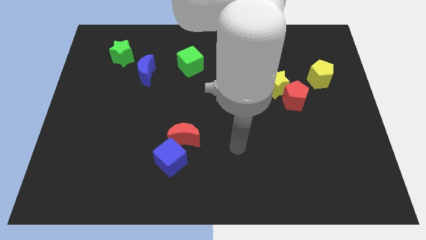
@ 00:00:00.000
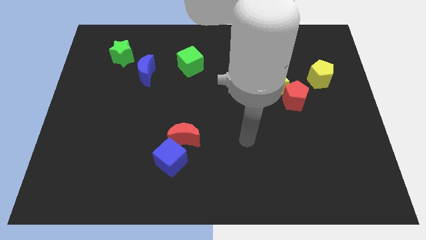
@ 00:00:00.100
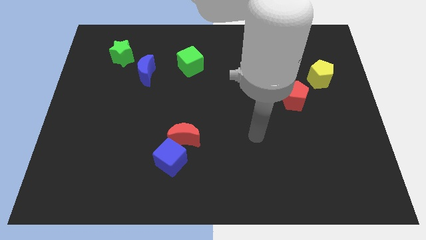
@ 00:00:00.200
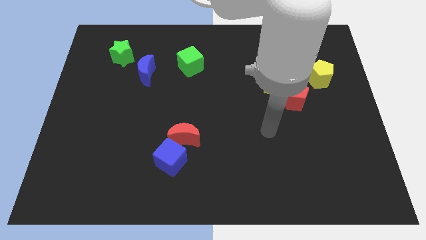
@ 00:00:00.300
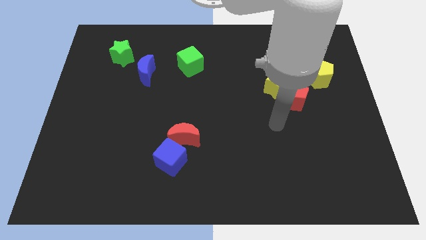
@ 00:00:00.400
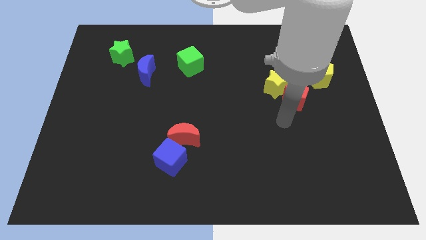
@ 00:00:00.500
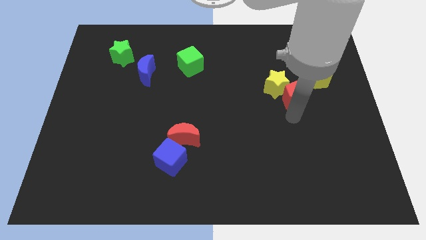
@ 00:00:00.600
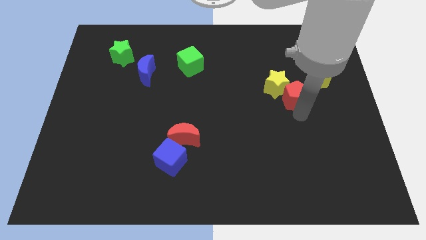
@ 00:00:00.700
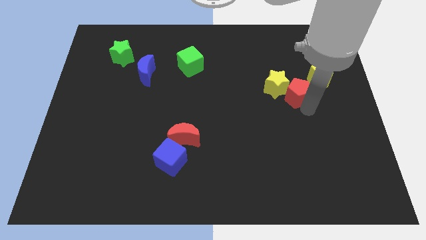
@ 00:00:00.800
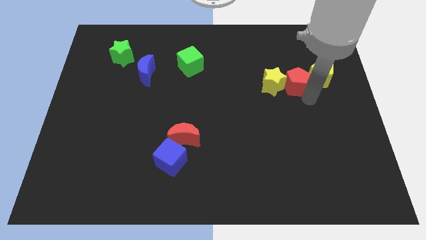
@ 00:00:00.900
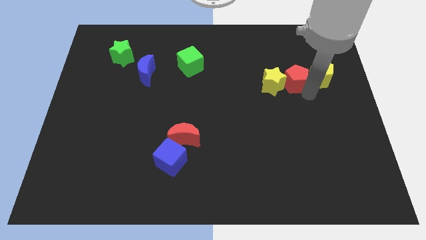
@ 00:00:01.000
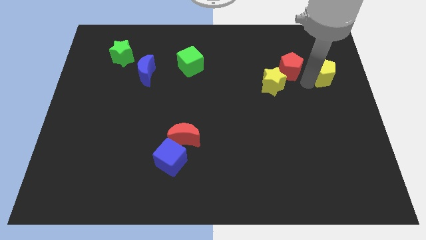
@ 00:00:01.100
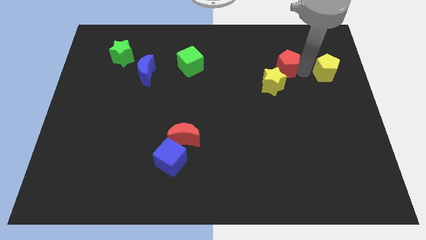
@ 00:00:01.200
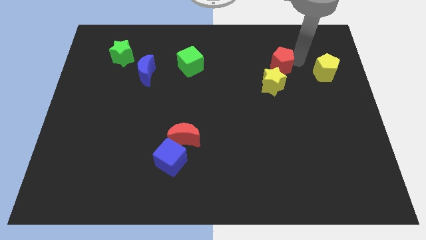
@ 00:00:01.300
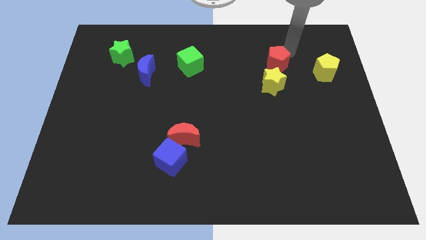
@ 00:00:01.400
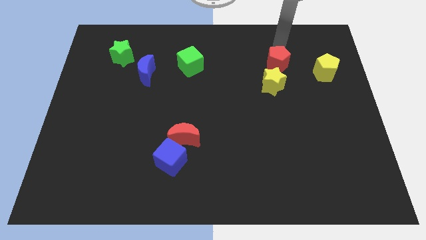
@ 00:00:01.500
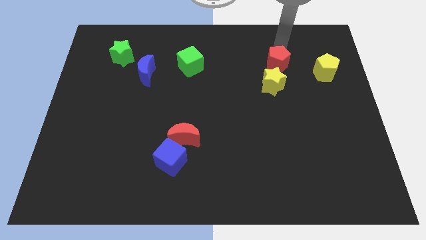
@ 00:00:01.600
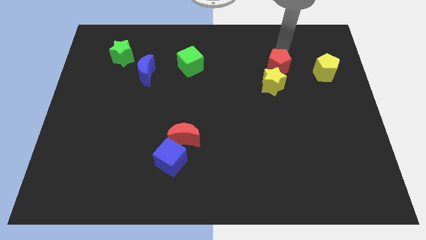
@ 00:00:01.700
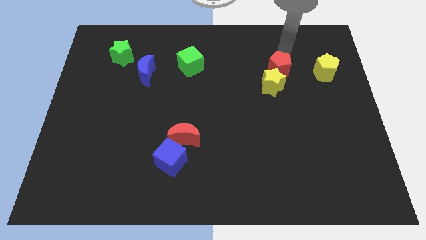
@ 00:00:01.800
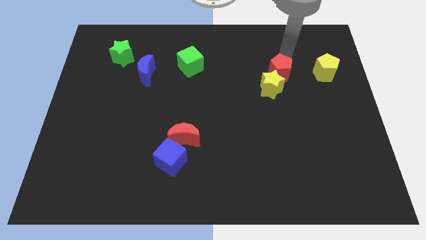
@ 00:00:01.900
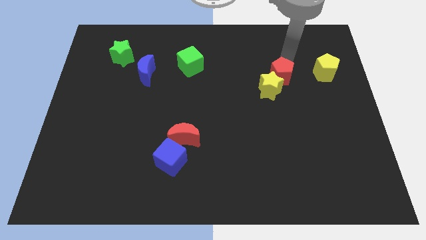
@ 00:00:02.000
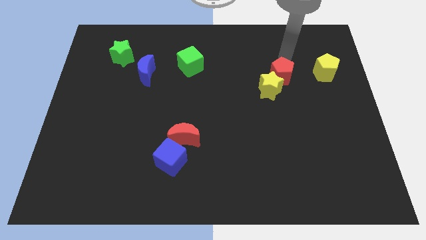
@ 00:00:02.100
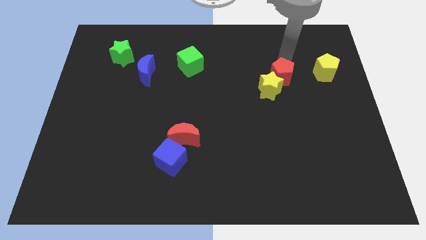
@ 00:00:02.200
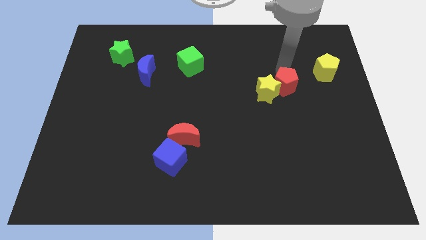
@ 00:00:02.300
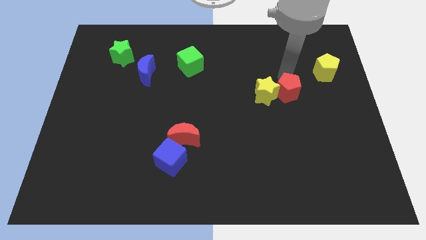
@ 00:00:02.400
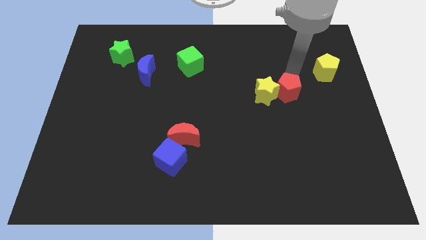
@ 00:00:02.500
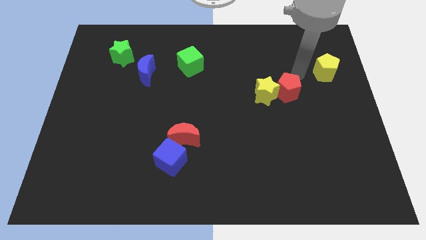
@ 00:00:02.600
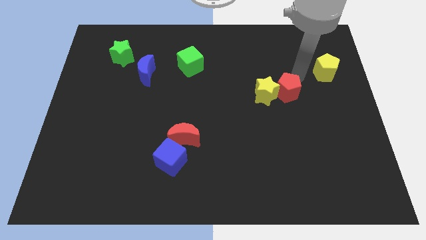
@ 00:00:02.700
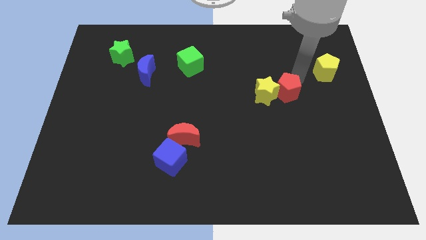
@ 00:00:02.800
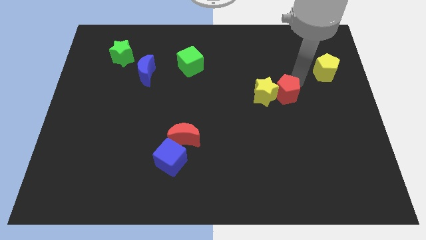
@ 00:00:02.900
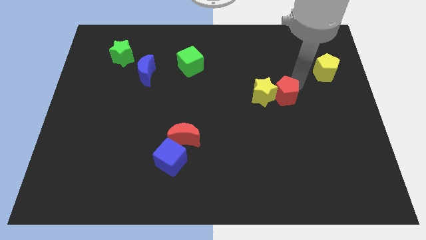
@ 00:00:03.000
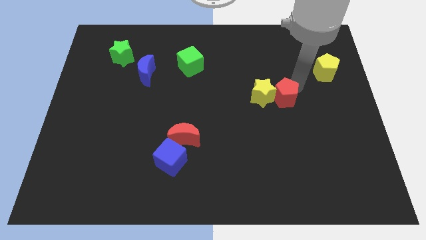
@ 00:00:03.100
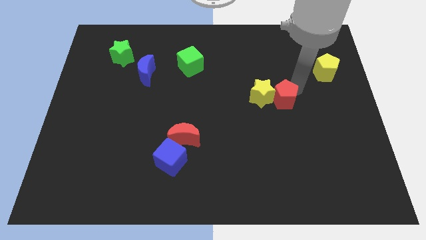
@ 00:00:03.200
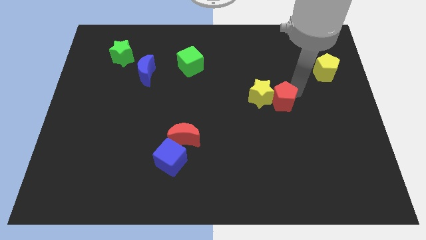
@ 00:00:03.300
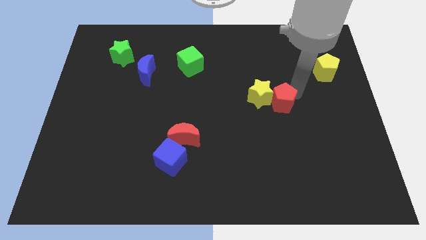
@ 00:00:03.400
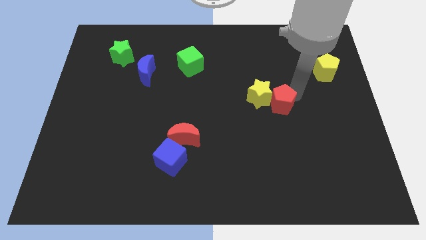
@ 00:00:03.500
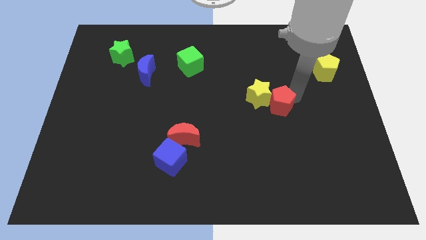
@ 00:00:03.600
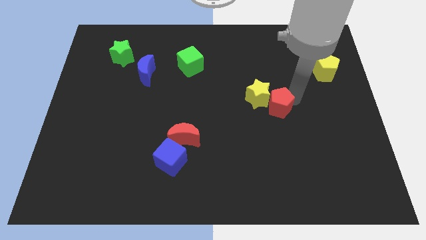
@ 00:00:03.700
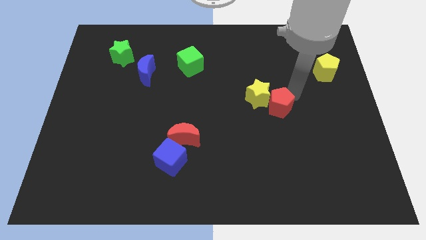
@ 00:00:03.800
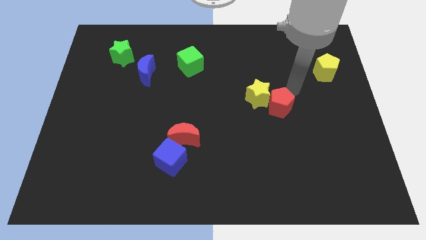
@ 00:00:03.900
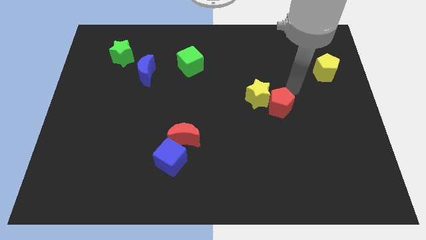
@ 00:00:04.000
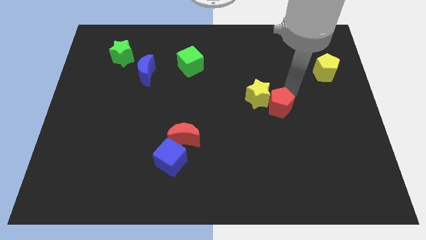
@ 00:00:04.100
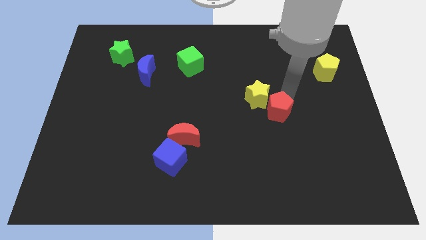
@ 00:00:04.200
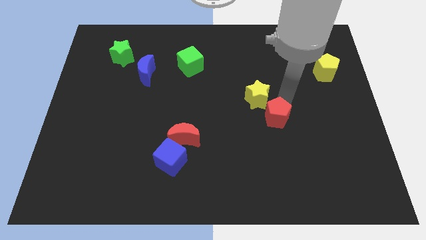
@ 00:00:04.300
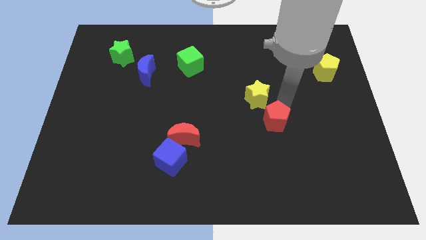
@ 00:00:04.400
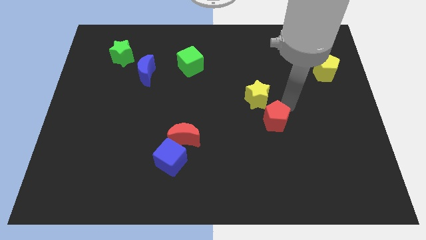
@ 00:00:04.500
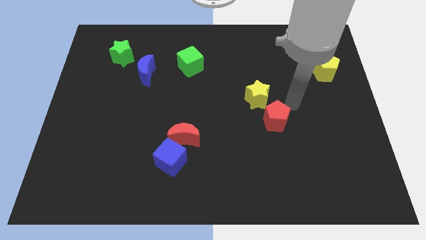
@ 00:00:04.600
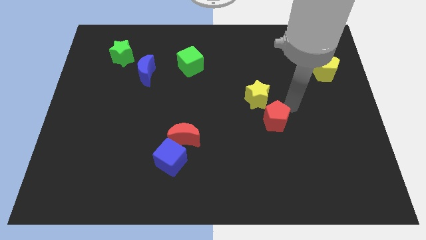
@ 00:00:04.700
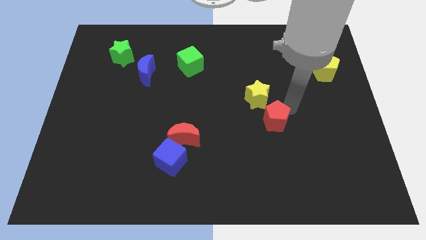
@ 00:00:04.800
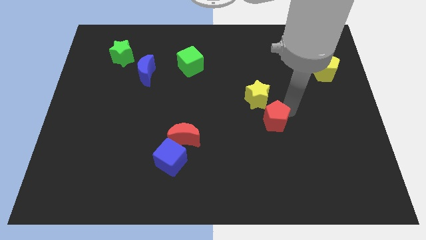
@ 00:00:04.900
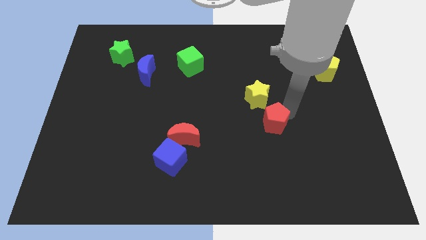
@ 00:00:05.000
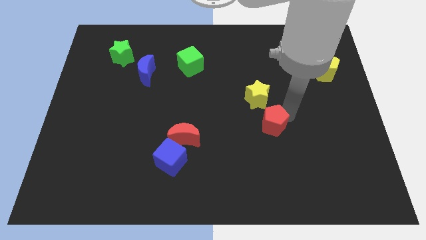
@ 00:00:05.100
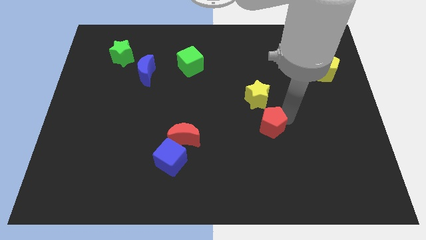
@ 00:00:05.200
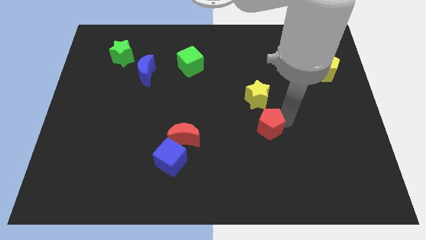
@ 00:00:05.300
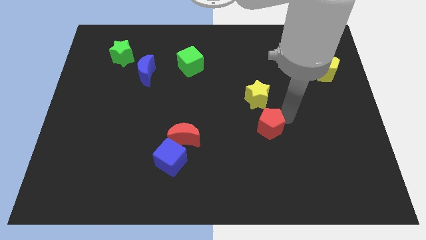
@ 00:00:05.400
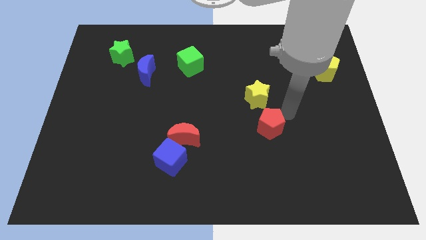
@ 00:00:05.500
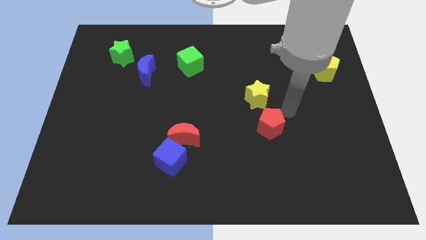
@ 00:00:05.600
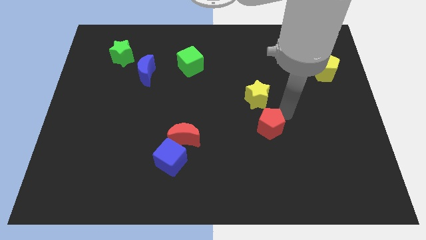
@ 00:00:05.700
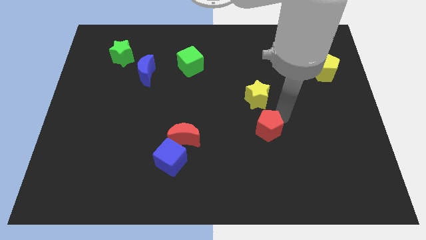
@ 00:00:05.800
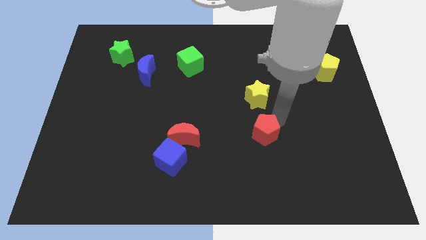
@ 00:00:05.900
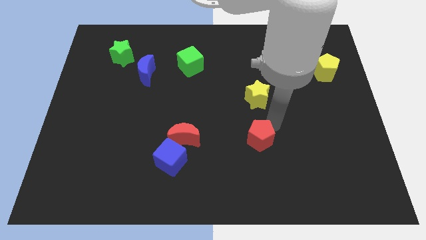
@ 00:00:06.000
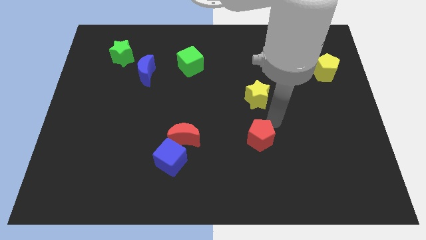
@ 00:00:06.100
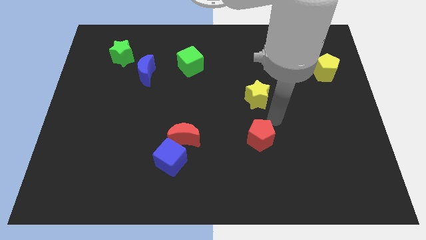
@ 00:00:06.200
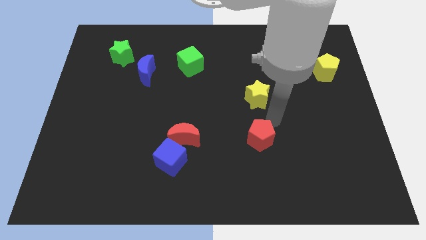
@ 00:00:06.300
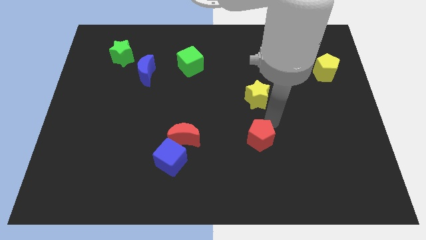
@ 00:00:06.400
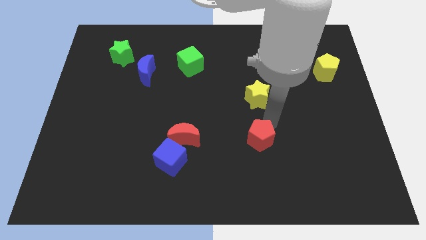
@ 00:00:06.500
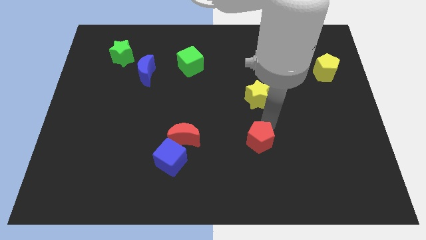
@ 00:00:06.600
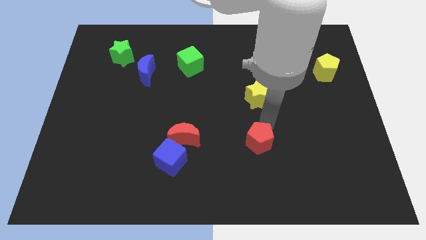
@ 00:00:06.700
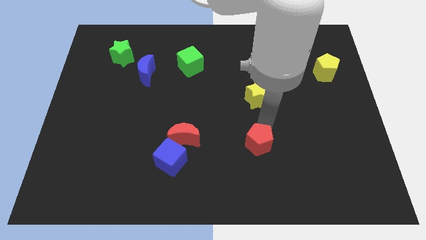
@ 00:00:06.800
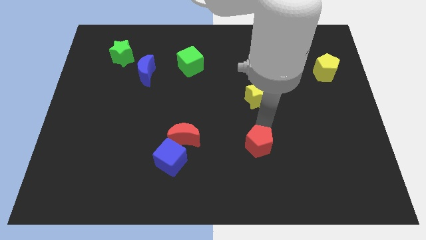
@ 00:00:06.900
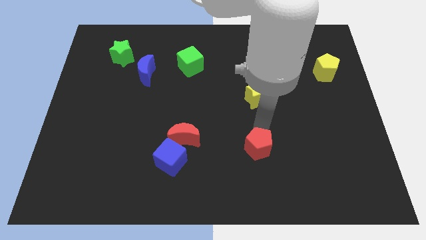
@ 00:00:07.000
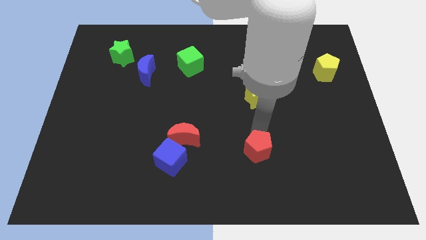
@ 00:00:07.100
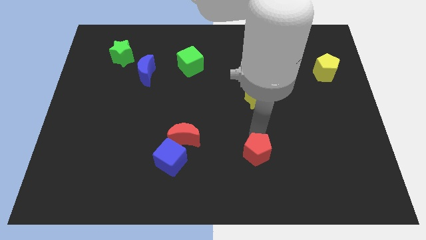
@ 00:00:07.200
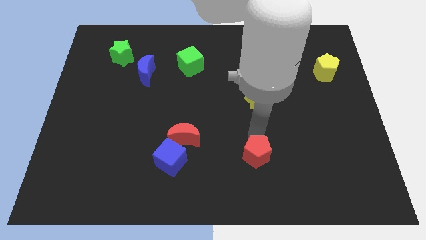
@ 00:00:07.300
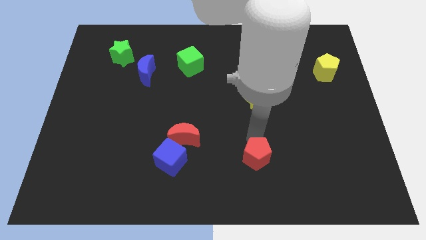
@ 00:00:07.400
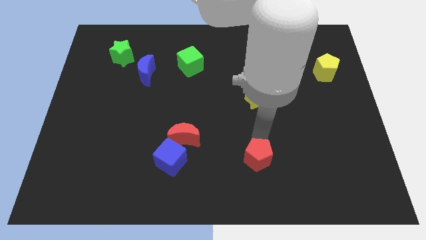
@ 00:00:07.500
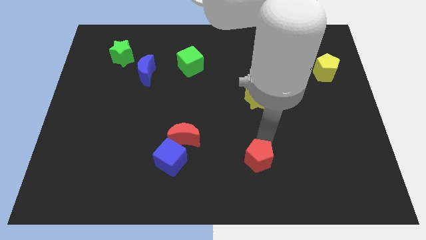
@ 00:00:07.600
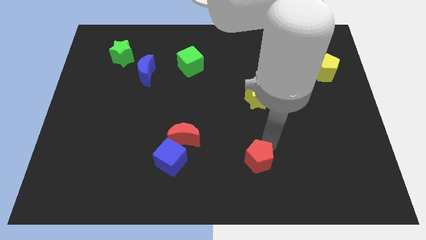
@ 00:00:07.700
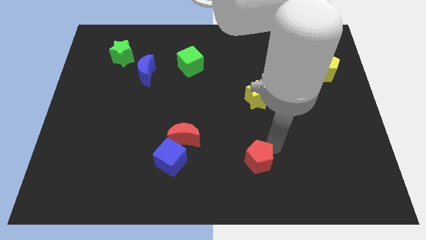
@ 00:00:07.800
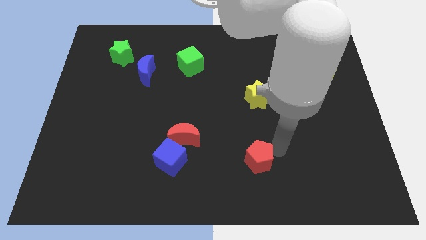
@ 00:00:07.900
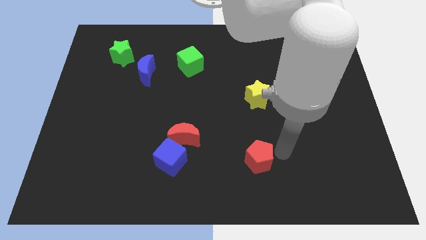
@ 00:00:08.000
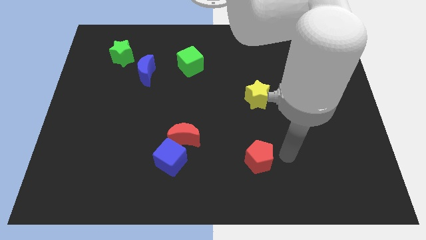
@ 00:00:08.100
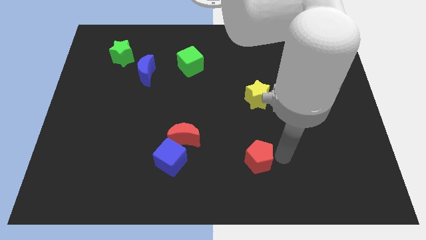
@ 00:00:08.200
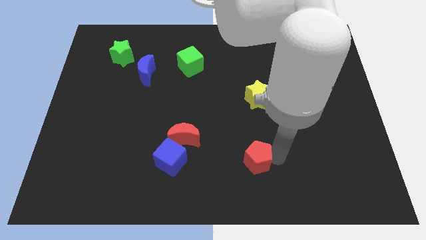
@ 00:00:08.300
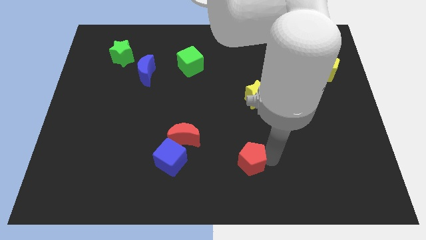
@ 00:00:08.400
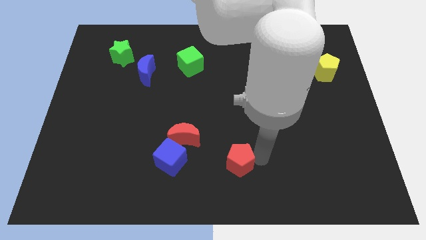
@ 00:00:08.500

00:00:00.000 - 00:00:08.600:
put the red pentagon to the bottom
